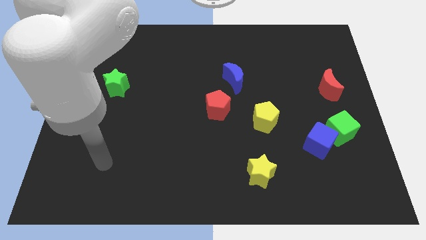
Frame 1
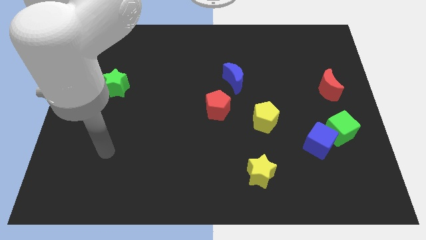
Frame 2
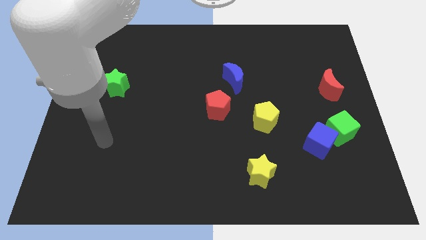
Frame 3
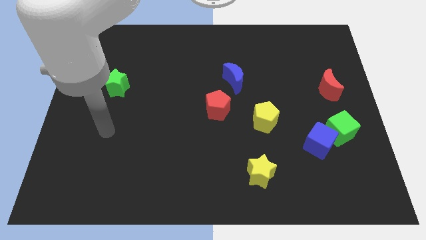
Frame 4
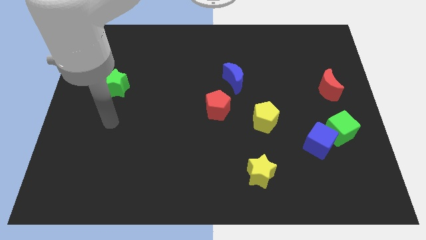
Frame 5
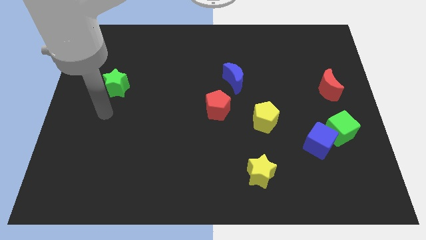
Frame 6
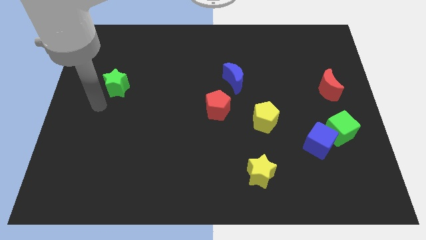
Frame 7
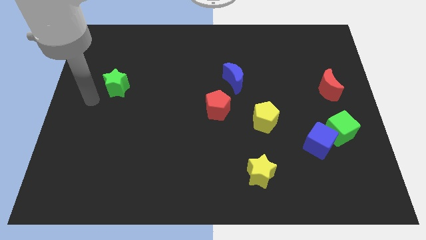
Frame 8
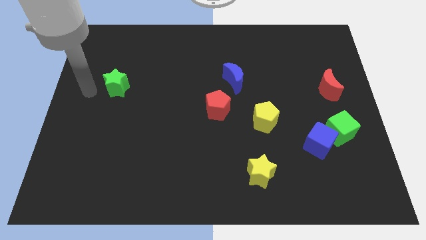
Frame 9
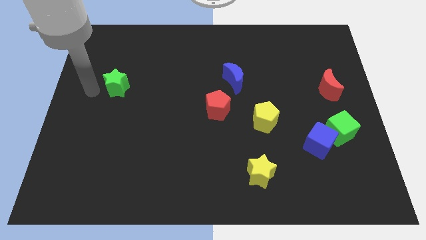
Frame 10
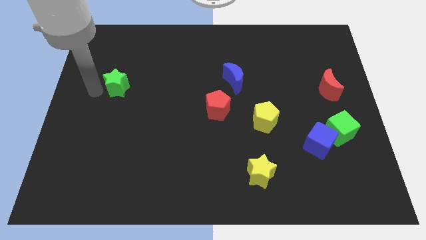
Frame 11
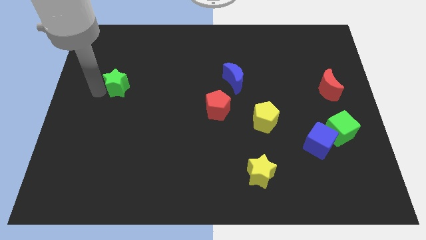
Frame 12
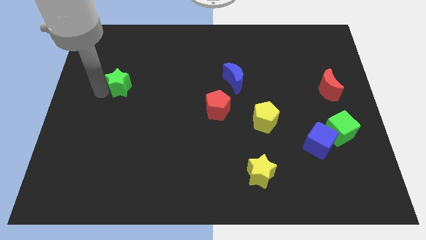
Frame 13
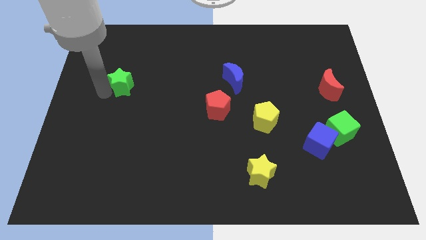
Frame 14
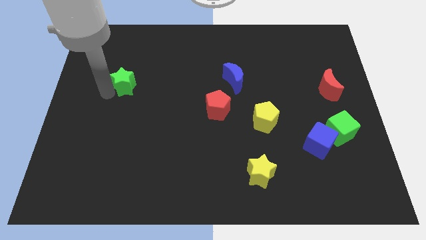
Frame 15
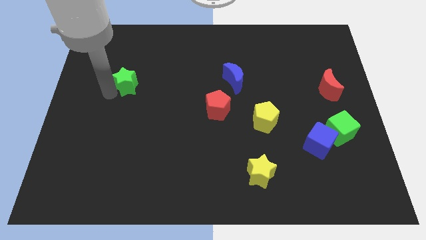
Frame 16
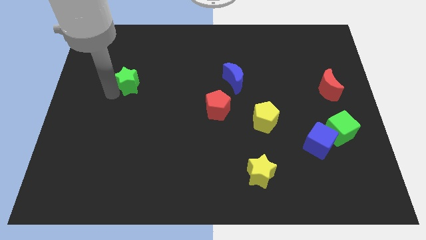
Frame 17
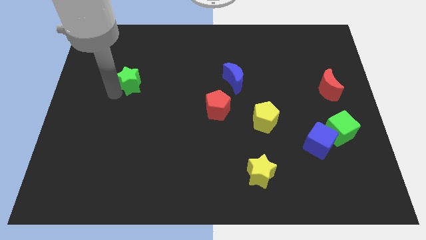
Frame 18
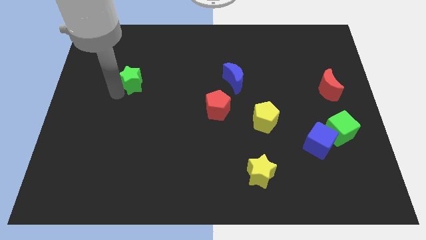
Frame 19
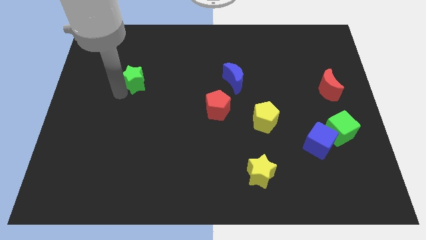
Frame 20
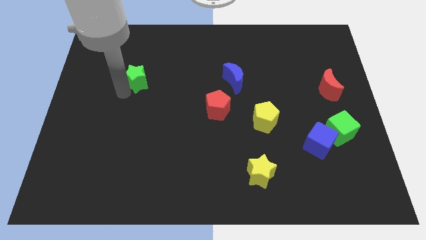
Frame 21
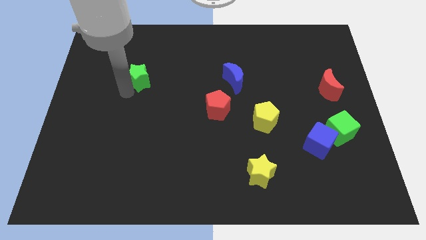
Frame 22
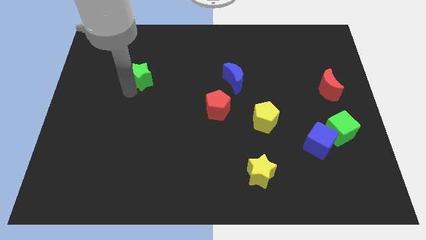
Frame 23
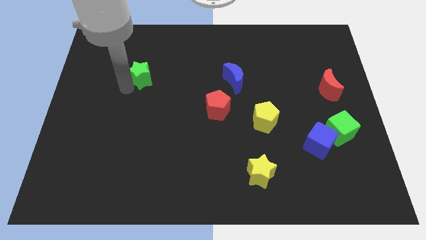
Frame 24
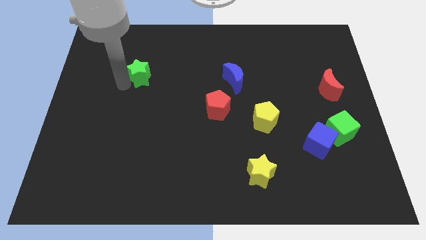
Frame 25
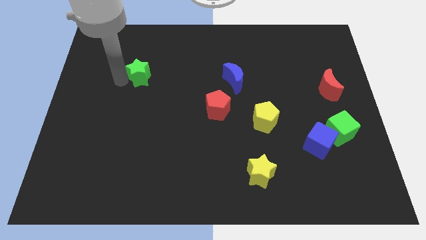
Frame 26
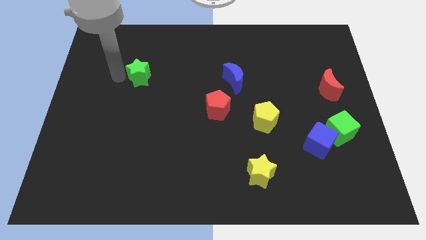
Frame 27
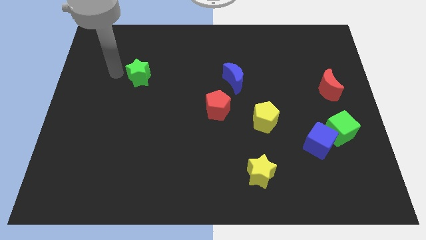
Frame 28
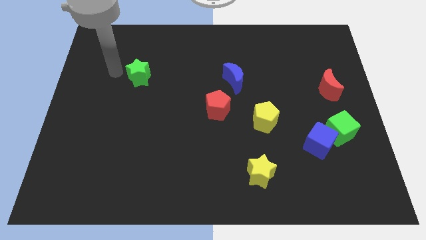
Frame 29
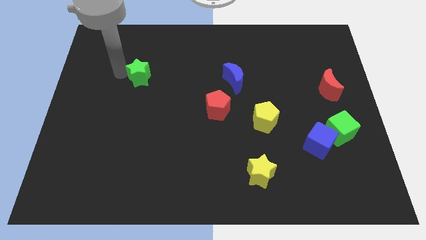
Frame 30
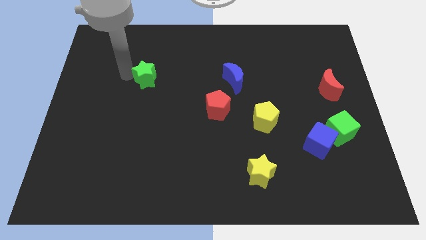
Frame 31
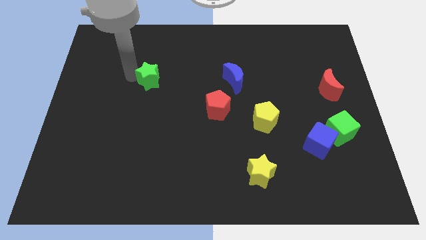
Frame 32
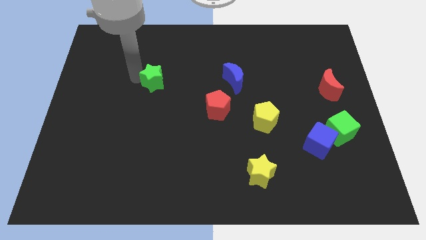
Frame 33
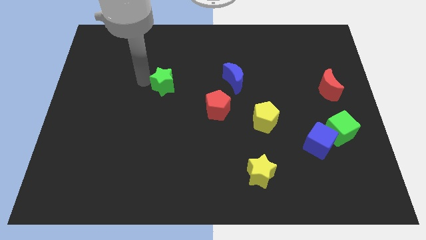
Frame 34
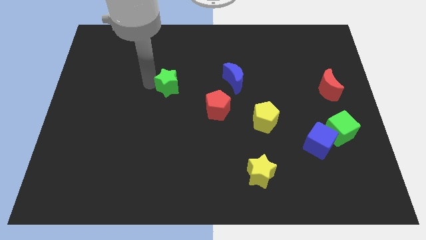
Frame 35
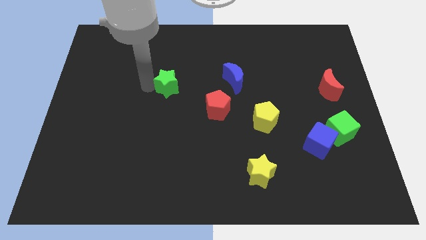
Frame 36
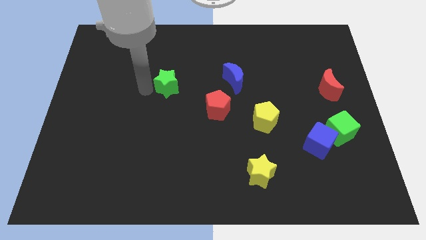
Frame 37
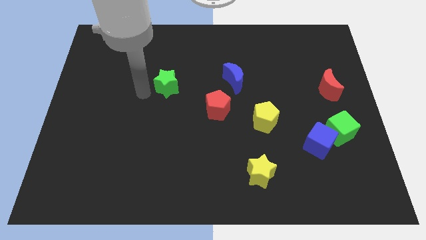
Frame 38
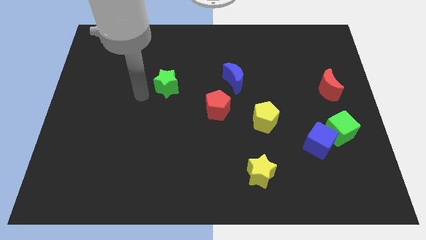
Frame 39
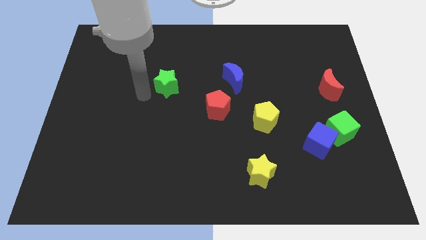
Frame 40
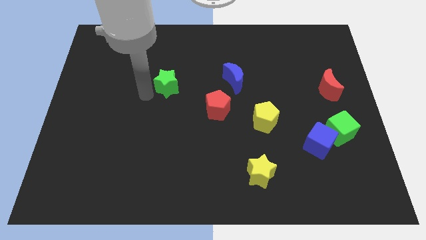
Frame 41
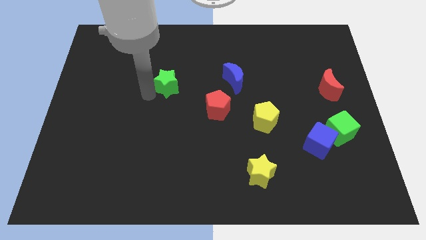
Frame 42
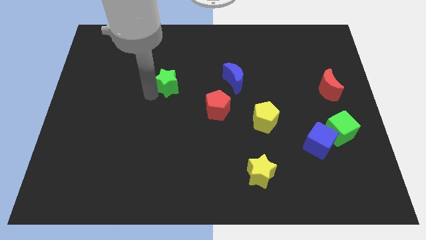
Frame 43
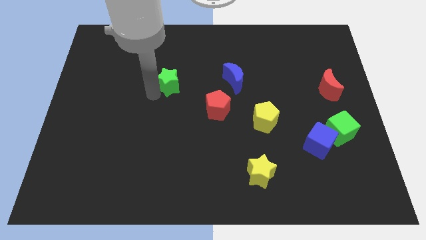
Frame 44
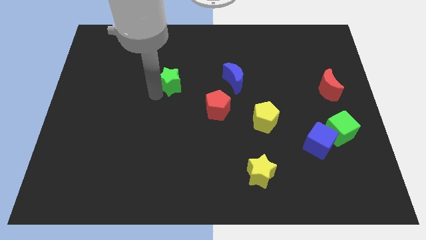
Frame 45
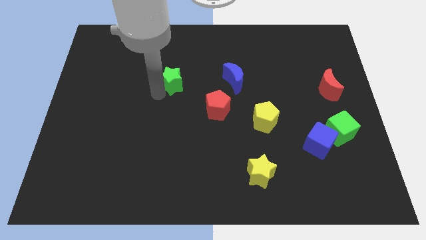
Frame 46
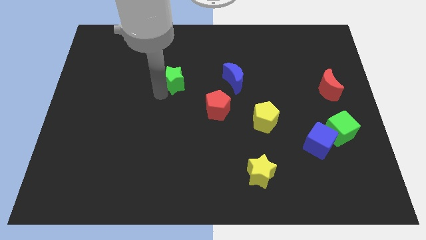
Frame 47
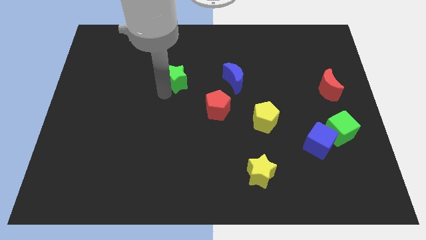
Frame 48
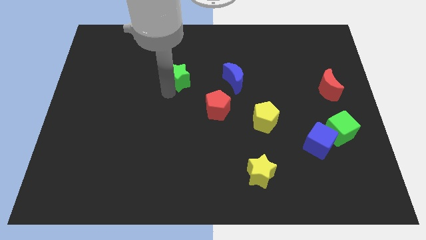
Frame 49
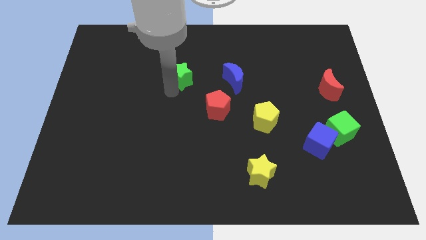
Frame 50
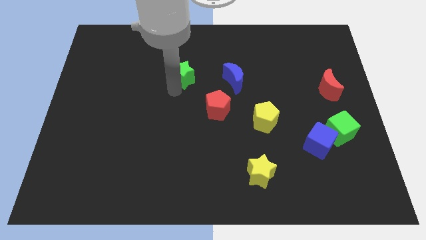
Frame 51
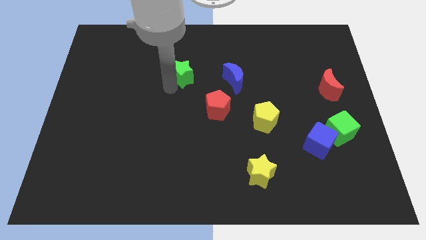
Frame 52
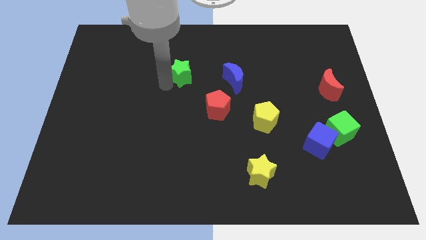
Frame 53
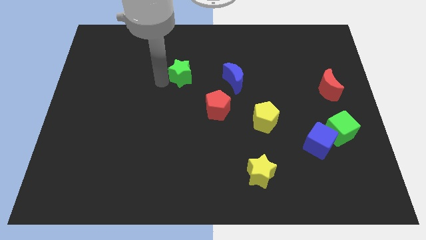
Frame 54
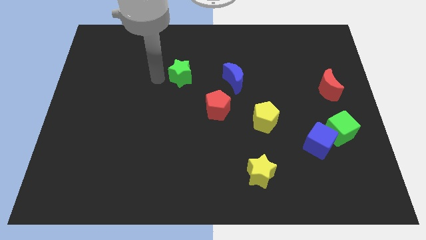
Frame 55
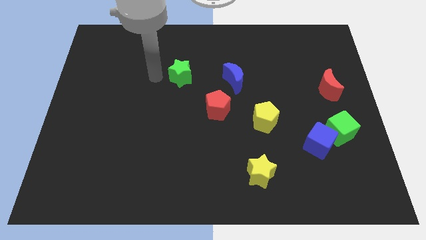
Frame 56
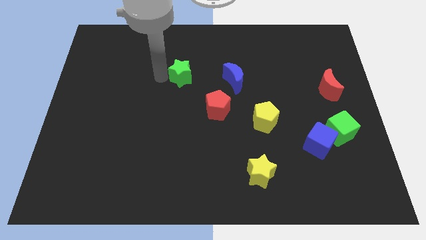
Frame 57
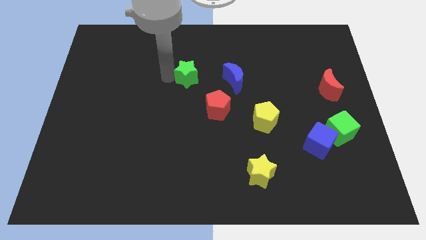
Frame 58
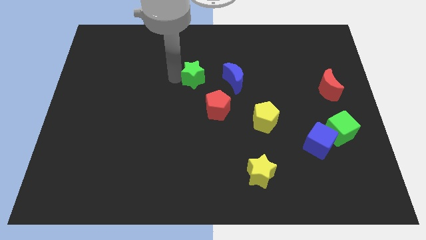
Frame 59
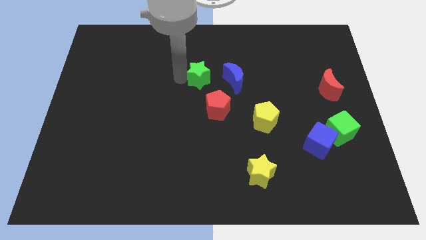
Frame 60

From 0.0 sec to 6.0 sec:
push the green star right

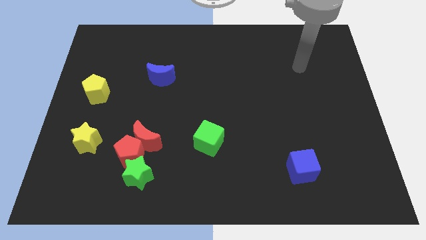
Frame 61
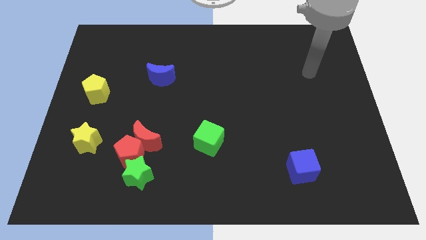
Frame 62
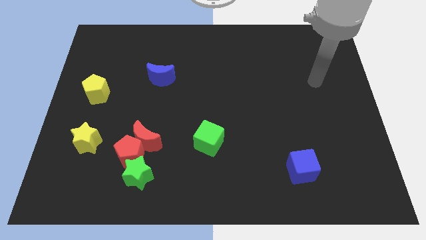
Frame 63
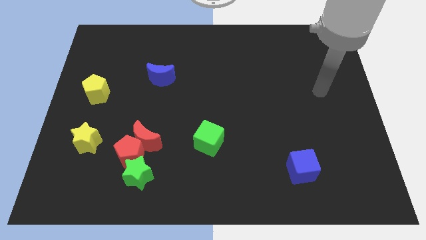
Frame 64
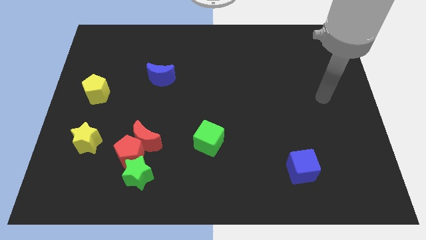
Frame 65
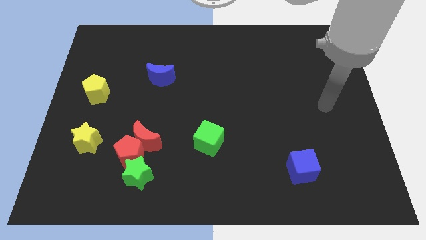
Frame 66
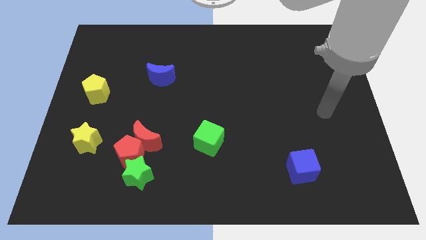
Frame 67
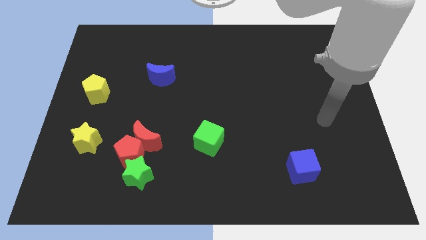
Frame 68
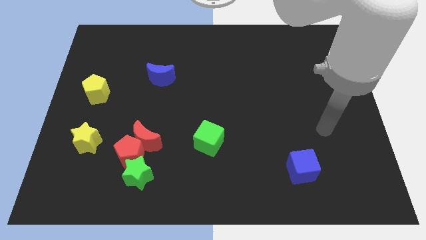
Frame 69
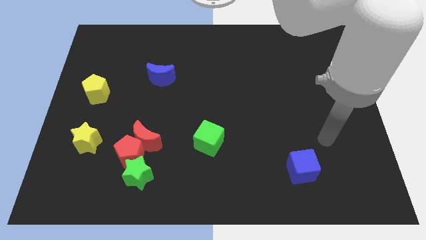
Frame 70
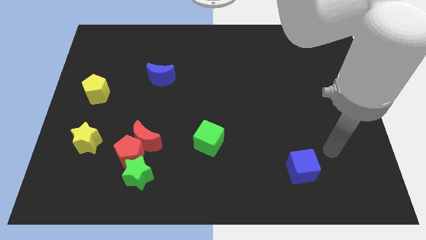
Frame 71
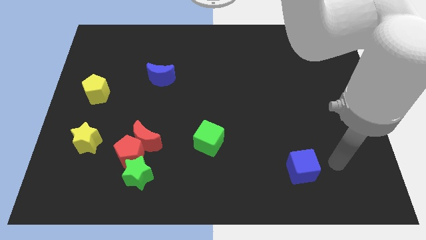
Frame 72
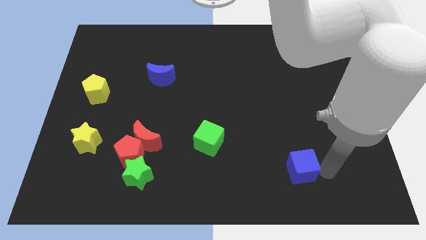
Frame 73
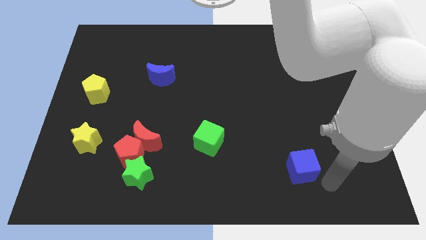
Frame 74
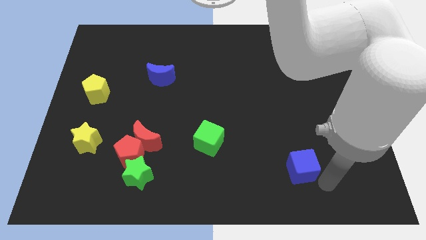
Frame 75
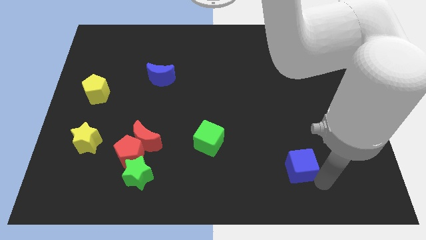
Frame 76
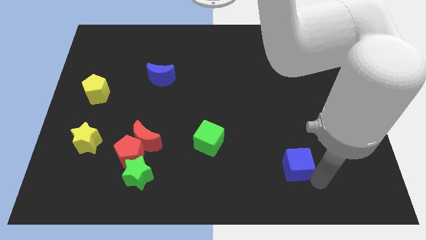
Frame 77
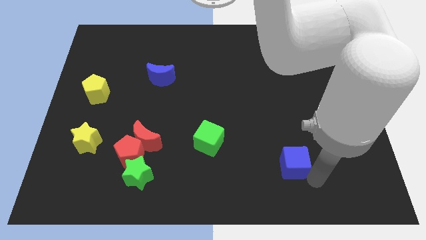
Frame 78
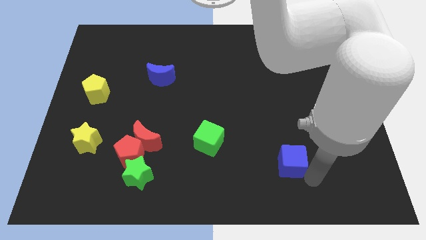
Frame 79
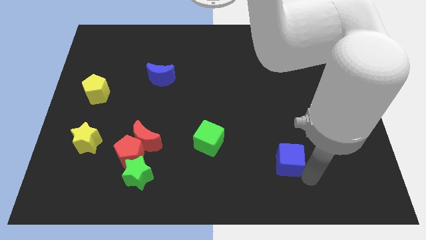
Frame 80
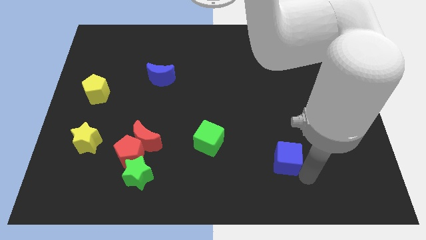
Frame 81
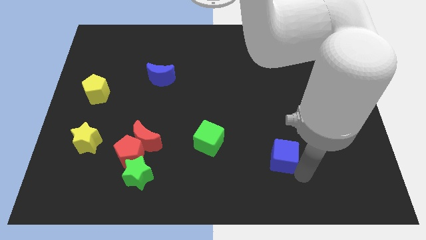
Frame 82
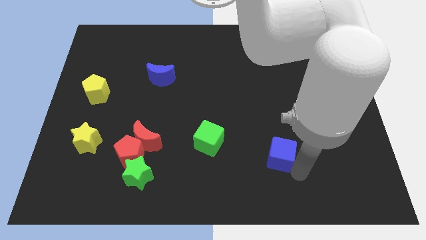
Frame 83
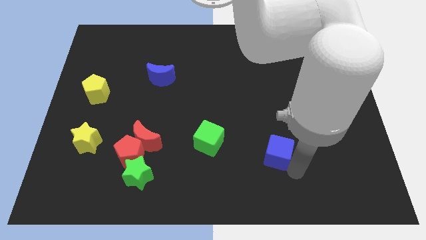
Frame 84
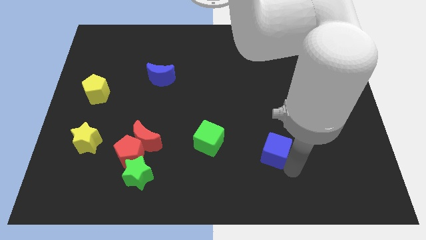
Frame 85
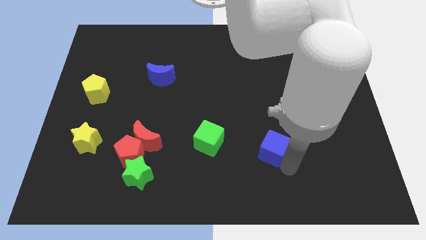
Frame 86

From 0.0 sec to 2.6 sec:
slide the blue cube a little bit up and then left
